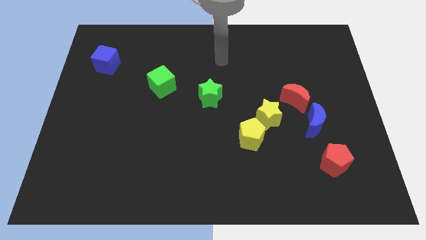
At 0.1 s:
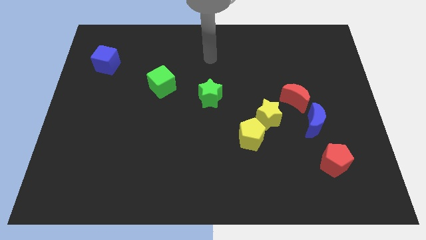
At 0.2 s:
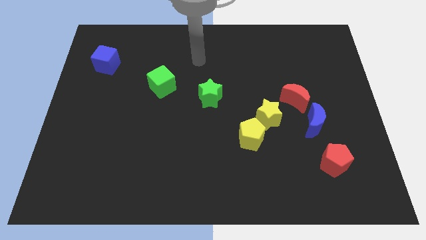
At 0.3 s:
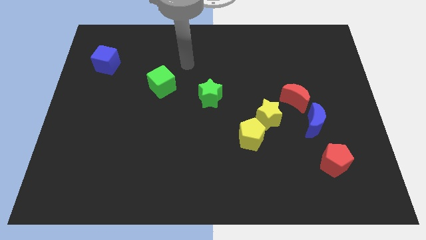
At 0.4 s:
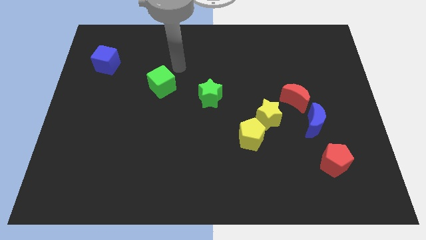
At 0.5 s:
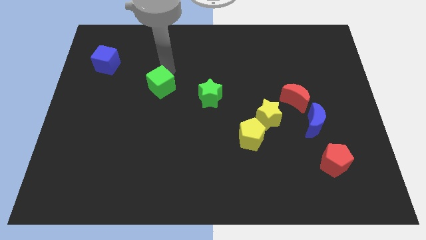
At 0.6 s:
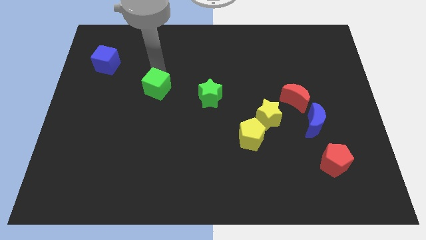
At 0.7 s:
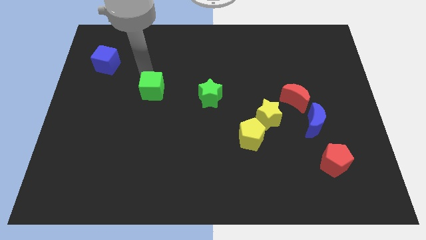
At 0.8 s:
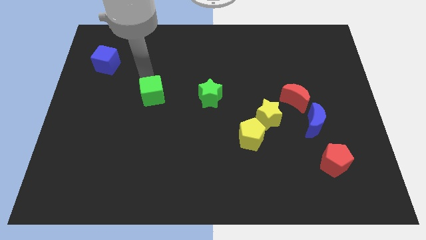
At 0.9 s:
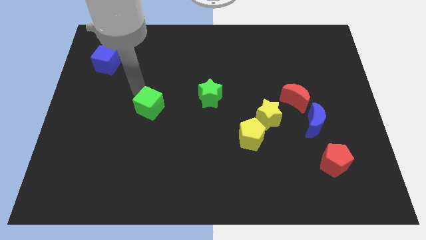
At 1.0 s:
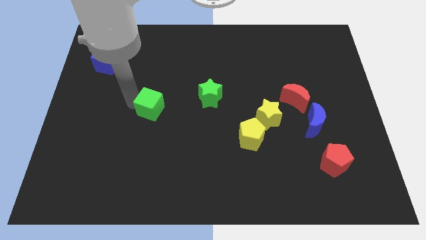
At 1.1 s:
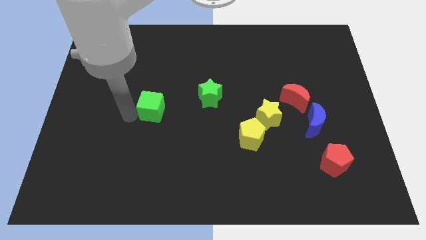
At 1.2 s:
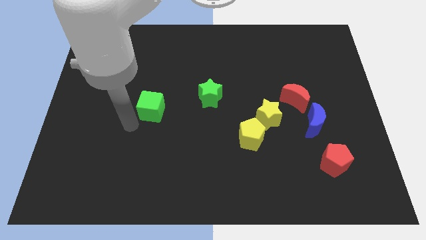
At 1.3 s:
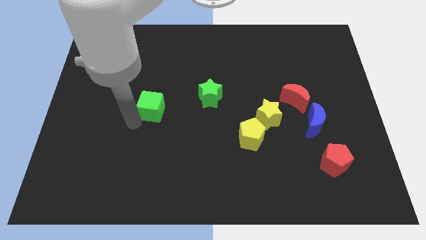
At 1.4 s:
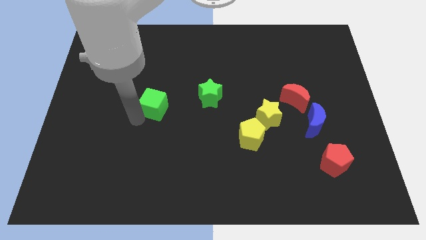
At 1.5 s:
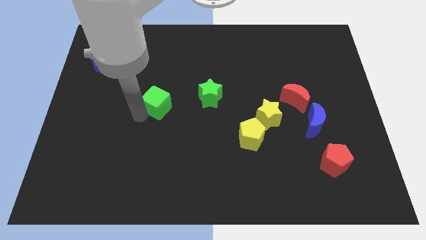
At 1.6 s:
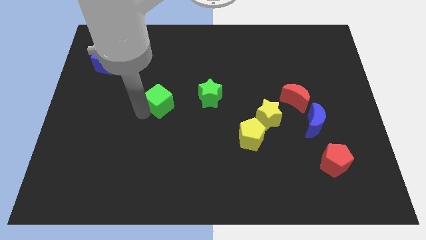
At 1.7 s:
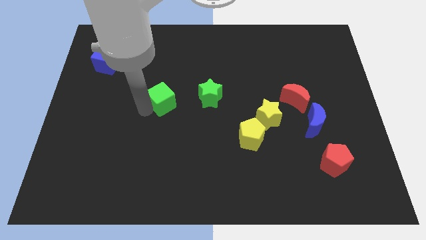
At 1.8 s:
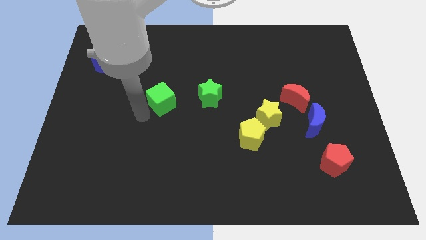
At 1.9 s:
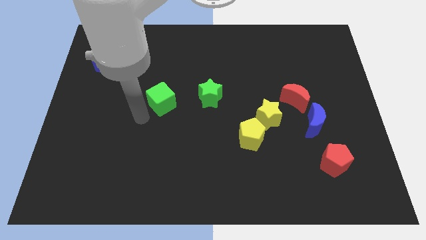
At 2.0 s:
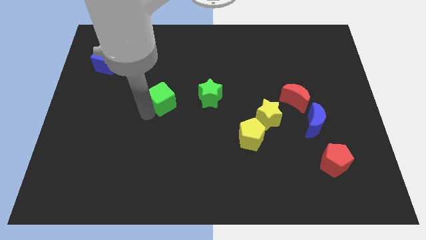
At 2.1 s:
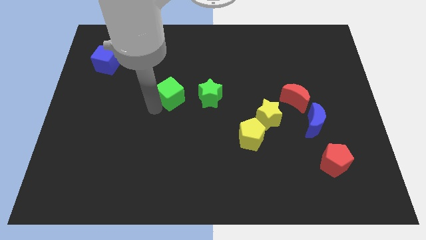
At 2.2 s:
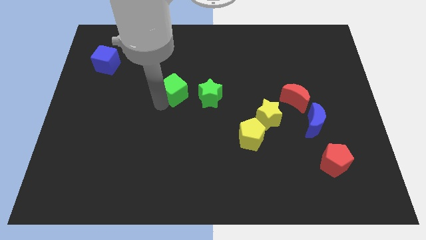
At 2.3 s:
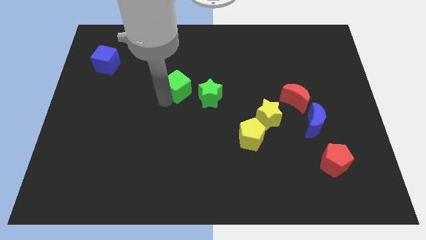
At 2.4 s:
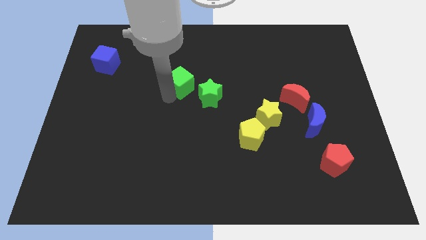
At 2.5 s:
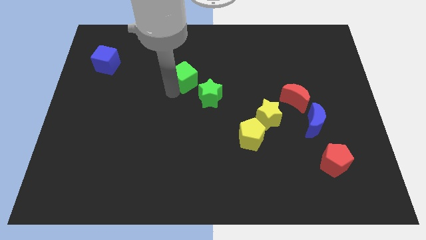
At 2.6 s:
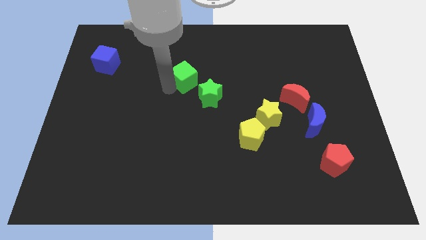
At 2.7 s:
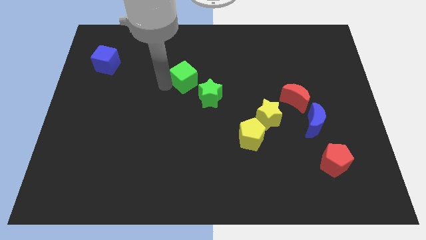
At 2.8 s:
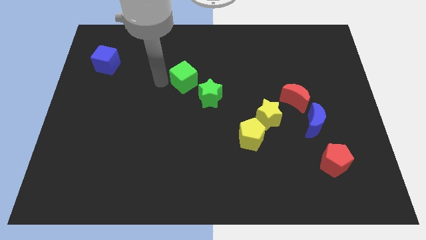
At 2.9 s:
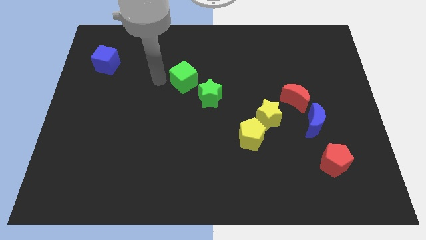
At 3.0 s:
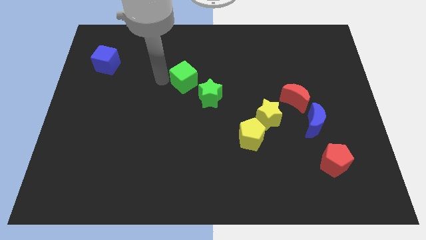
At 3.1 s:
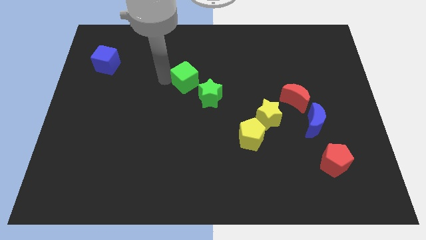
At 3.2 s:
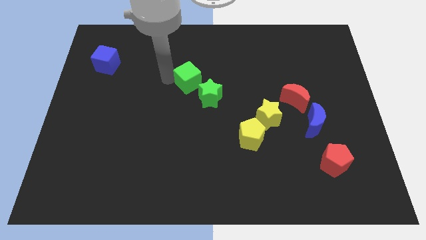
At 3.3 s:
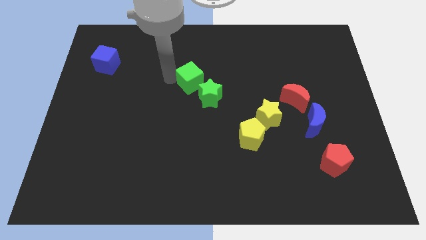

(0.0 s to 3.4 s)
push the green cube slightly right

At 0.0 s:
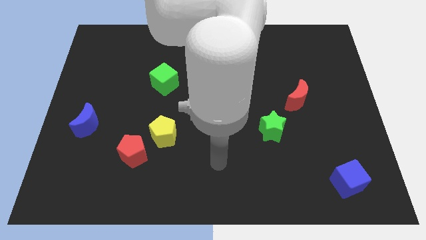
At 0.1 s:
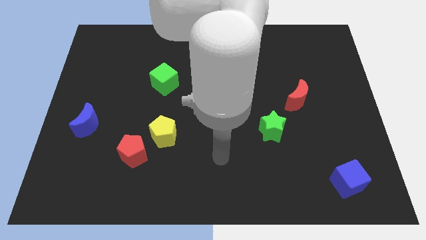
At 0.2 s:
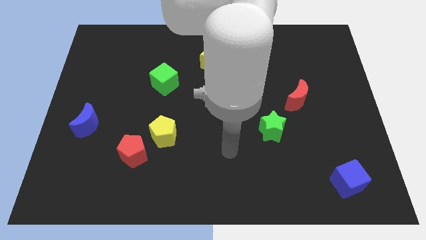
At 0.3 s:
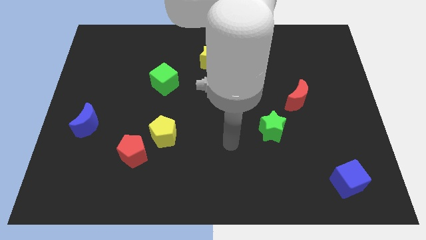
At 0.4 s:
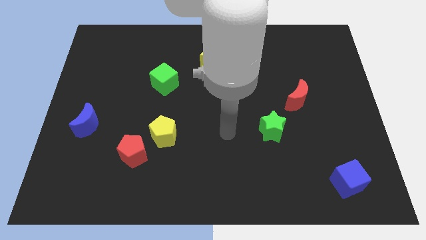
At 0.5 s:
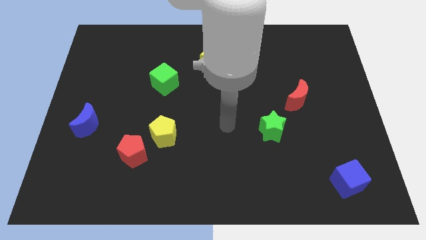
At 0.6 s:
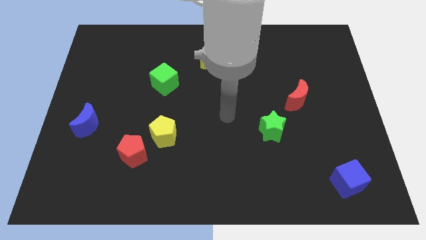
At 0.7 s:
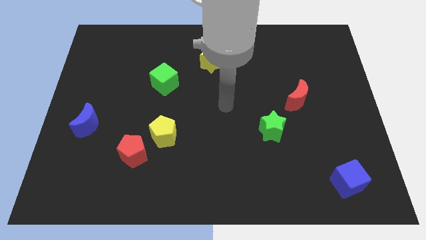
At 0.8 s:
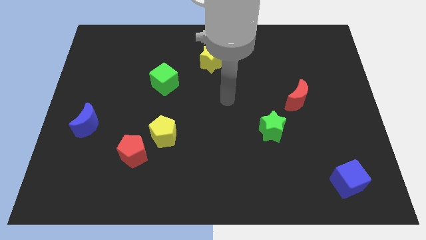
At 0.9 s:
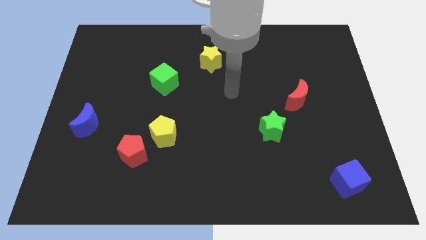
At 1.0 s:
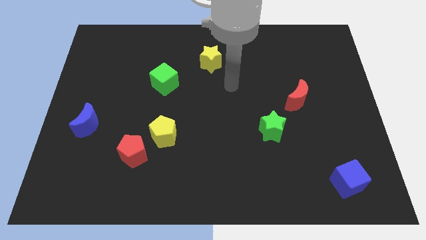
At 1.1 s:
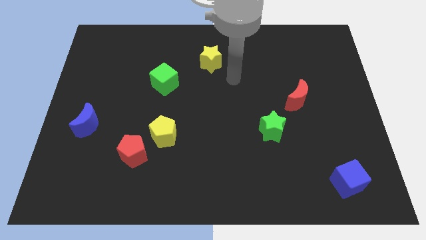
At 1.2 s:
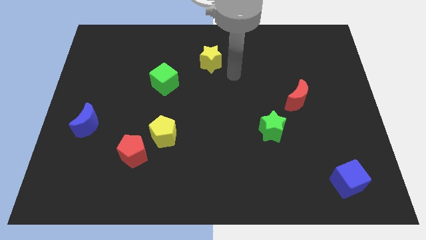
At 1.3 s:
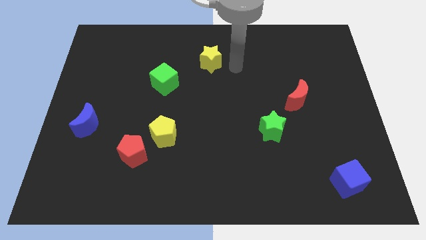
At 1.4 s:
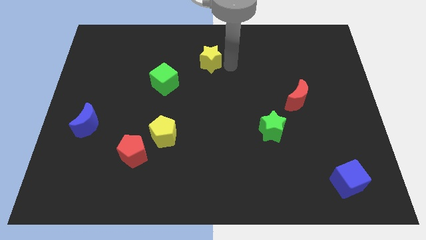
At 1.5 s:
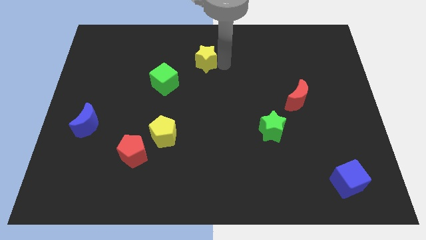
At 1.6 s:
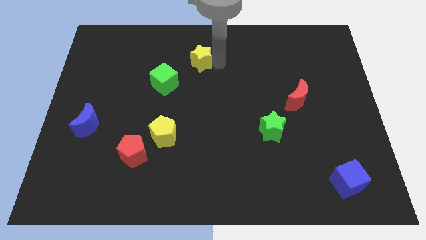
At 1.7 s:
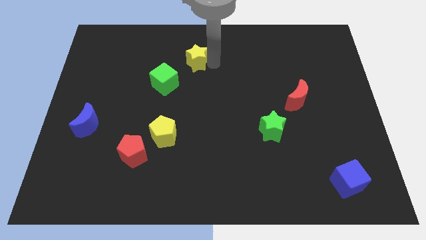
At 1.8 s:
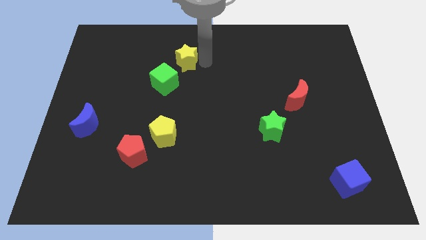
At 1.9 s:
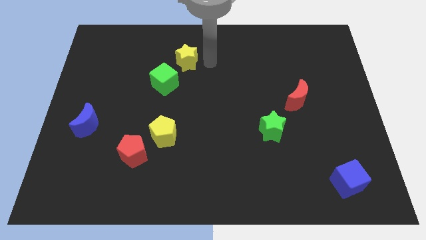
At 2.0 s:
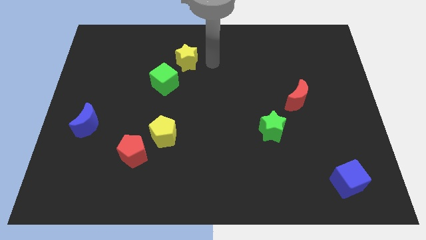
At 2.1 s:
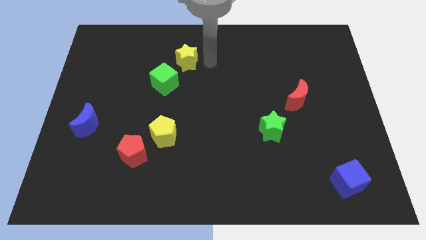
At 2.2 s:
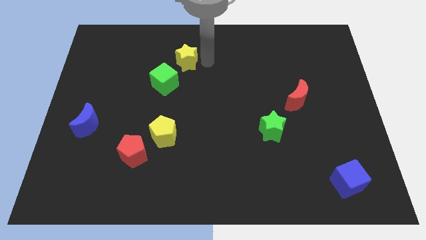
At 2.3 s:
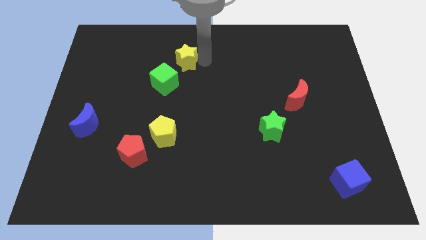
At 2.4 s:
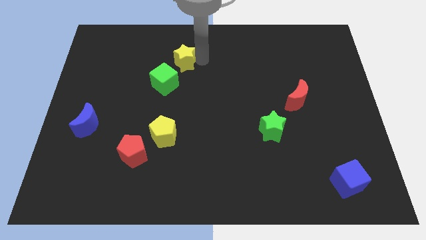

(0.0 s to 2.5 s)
slightly push the yellow star left

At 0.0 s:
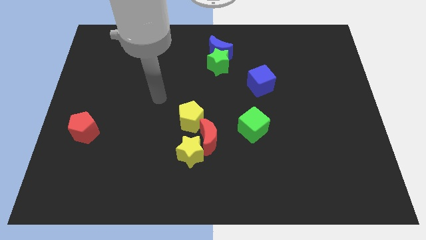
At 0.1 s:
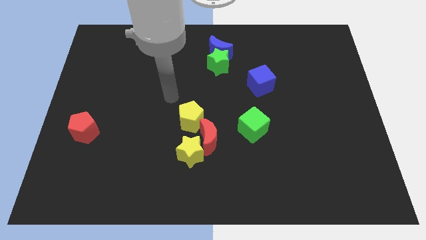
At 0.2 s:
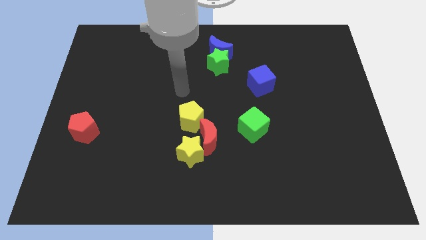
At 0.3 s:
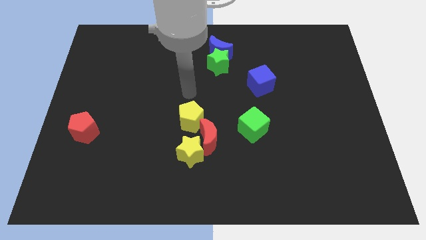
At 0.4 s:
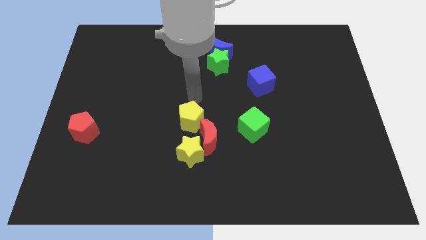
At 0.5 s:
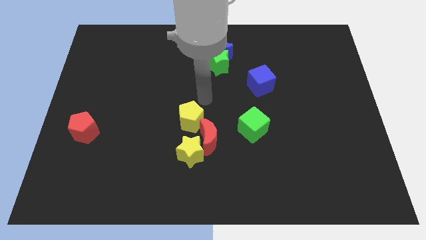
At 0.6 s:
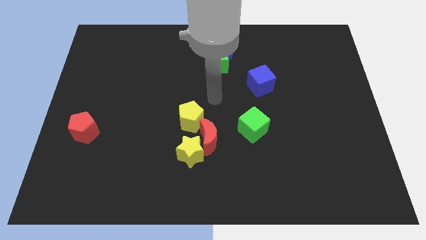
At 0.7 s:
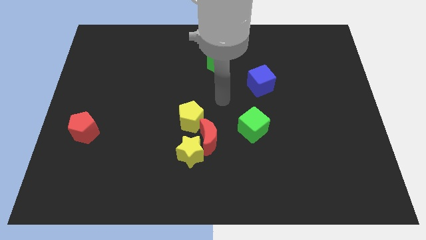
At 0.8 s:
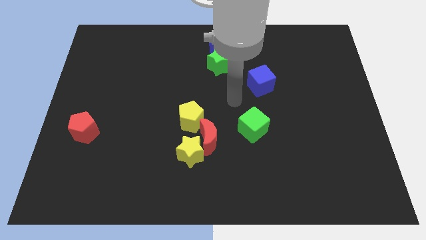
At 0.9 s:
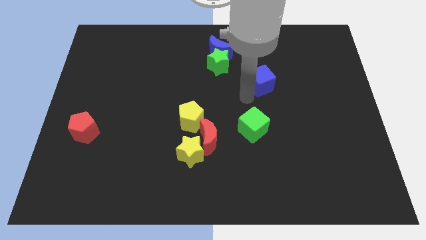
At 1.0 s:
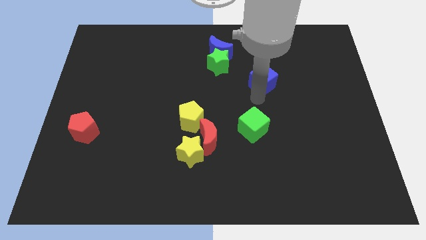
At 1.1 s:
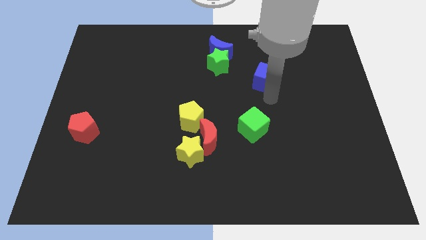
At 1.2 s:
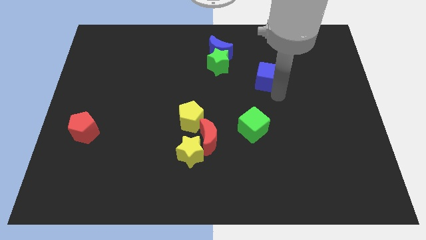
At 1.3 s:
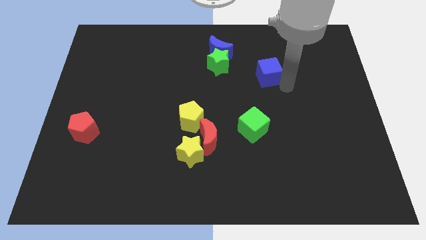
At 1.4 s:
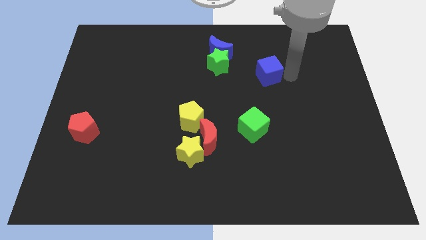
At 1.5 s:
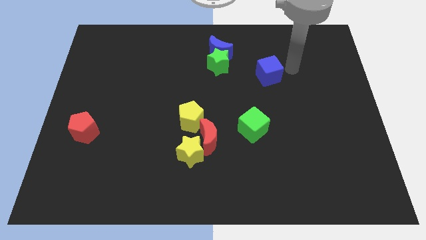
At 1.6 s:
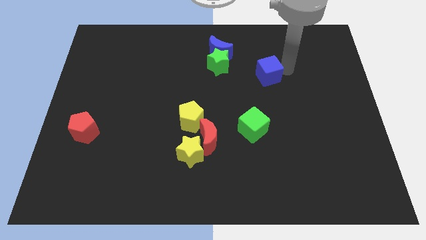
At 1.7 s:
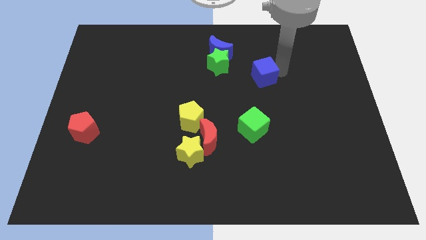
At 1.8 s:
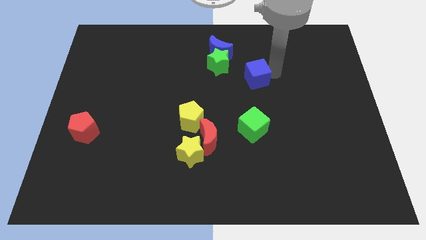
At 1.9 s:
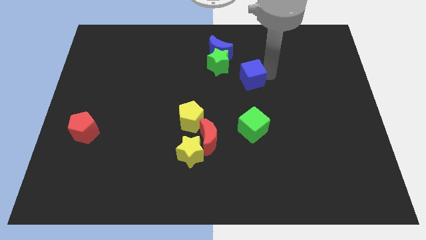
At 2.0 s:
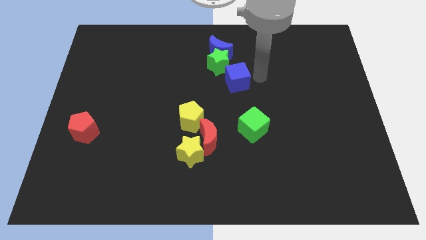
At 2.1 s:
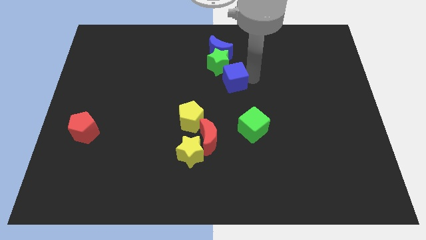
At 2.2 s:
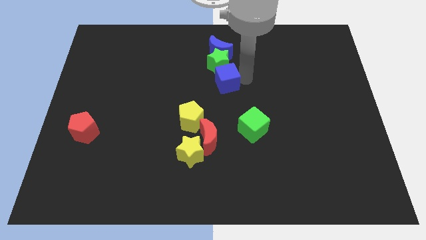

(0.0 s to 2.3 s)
push the blue cube a little bit to the left
